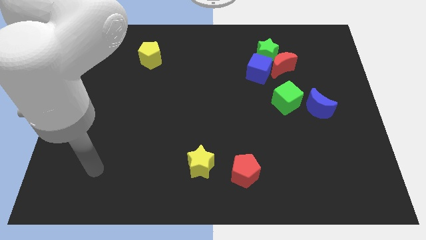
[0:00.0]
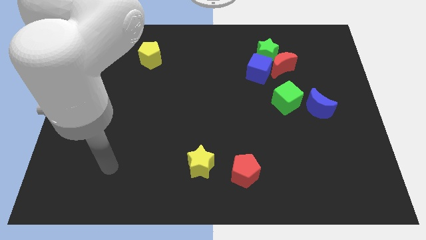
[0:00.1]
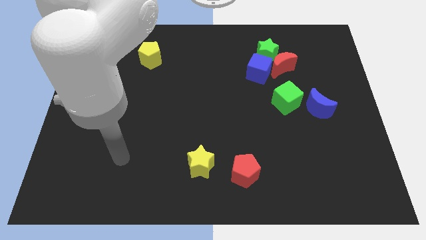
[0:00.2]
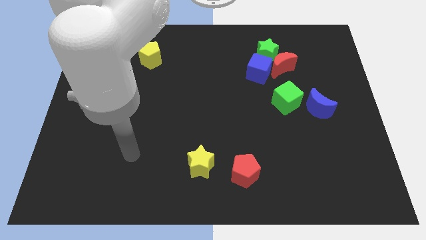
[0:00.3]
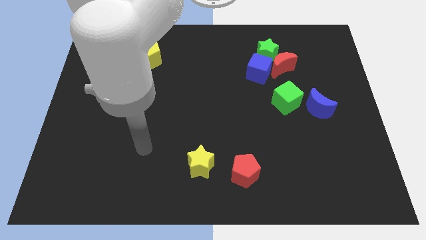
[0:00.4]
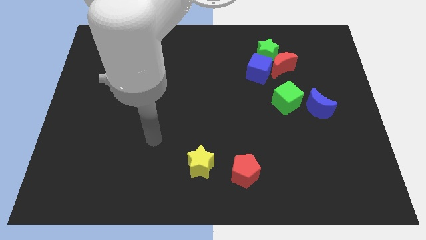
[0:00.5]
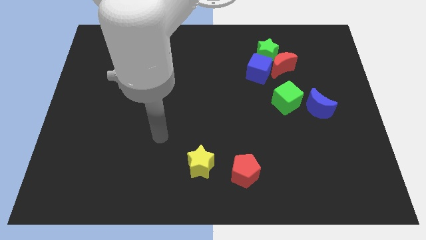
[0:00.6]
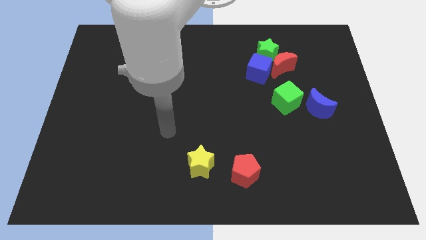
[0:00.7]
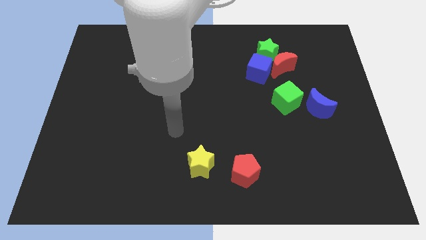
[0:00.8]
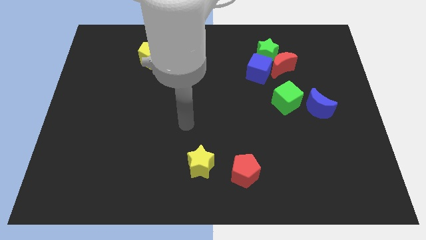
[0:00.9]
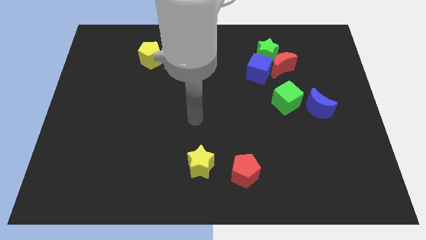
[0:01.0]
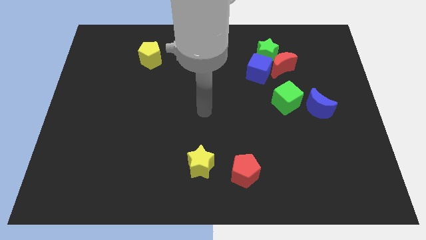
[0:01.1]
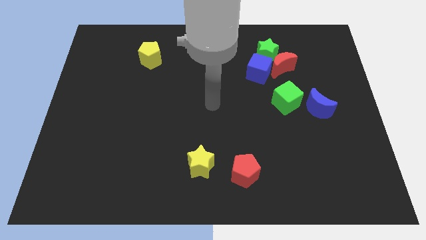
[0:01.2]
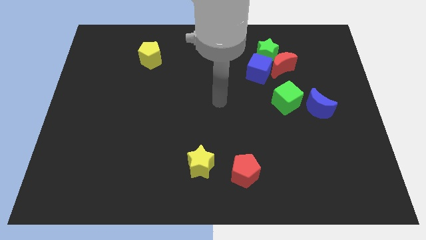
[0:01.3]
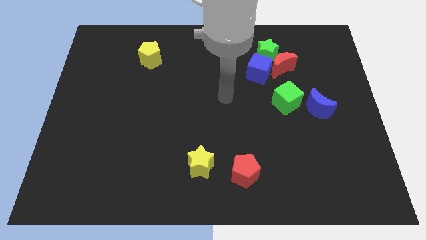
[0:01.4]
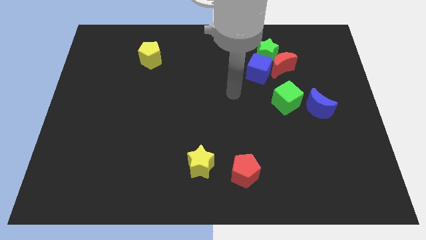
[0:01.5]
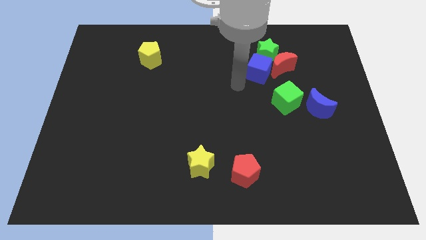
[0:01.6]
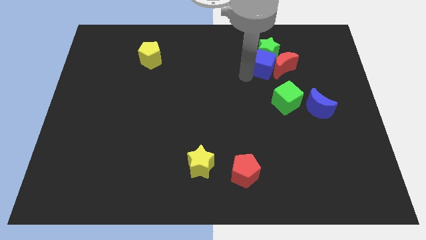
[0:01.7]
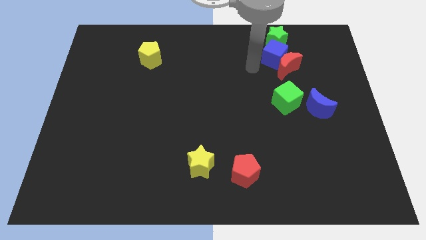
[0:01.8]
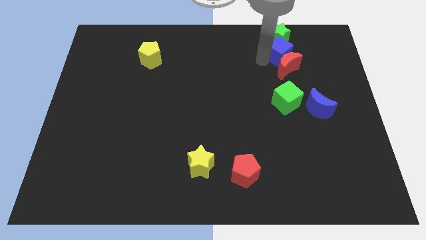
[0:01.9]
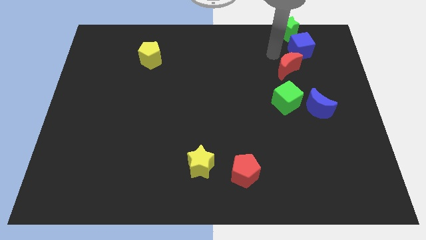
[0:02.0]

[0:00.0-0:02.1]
move the red moon away from the green star and blue cube

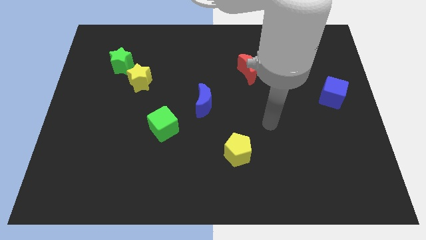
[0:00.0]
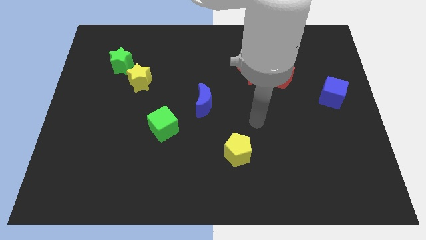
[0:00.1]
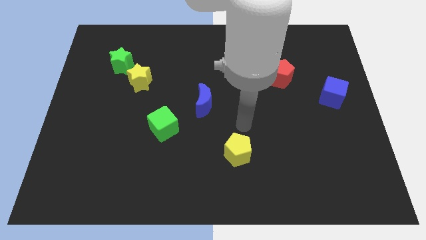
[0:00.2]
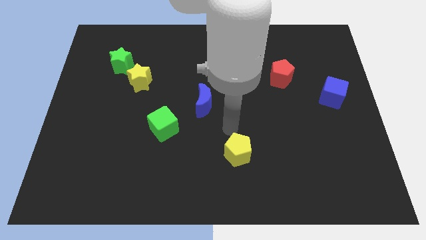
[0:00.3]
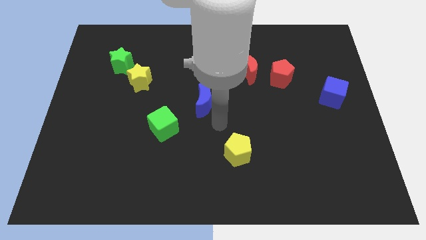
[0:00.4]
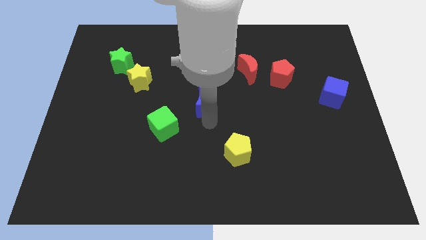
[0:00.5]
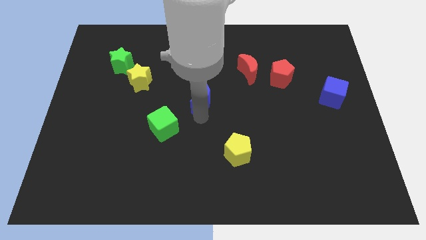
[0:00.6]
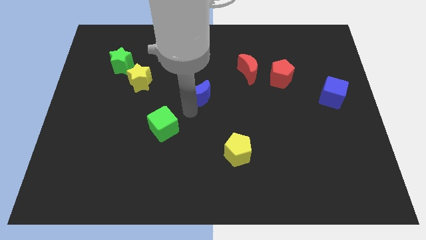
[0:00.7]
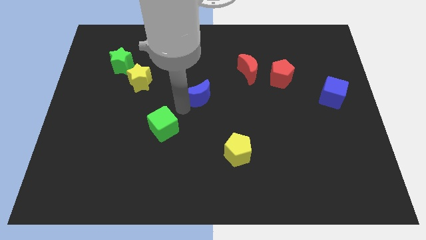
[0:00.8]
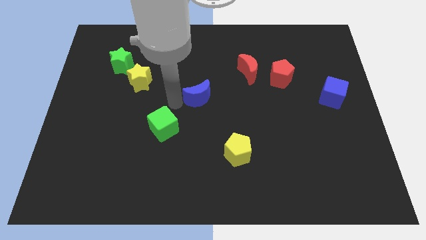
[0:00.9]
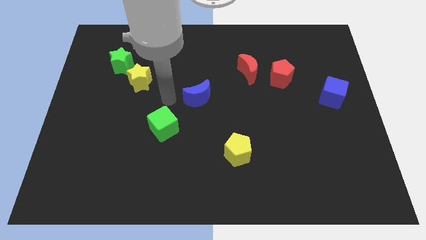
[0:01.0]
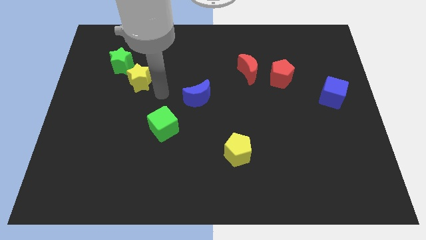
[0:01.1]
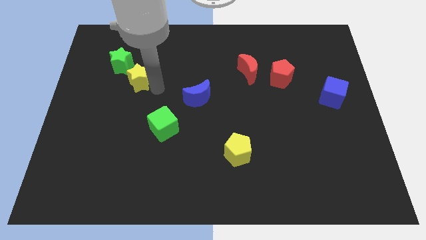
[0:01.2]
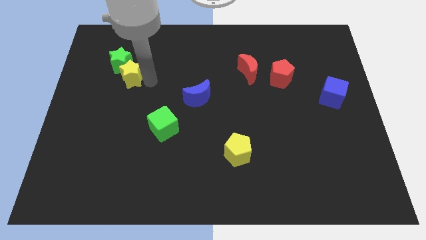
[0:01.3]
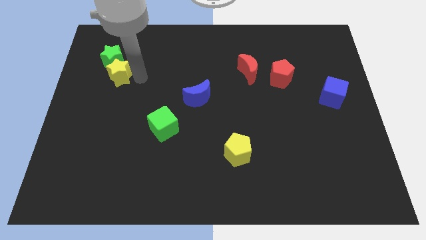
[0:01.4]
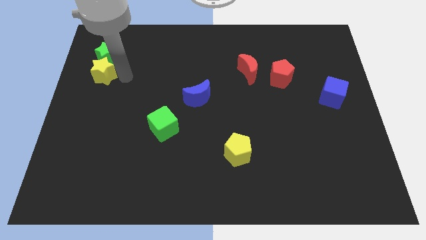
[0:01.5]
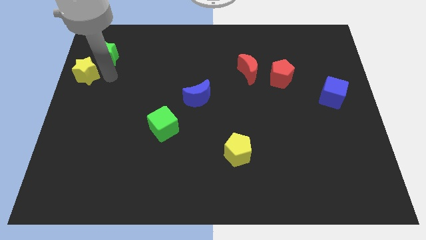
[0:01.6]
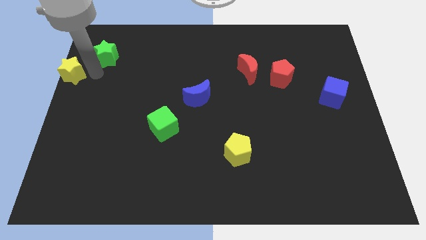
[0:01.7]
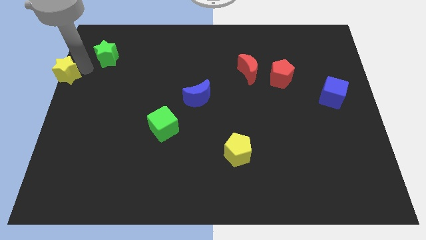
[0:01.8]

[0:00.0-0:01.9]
separate the green star from the yellow star

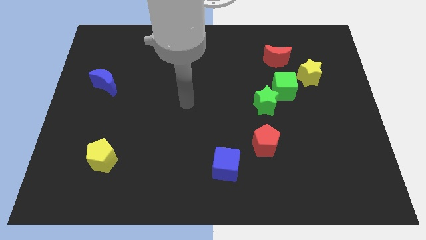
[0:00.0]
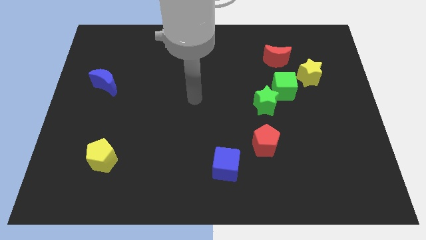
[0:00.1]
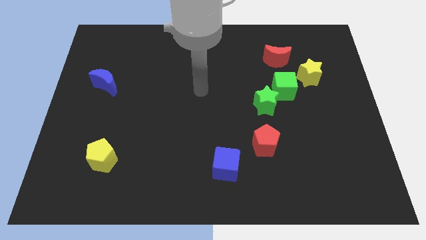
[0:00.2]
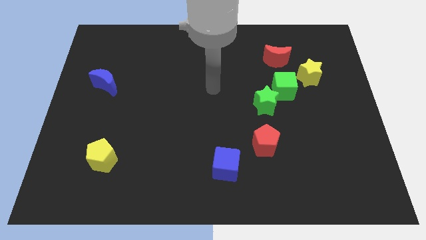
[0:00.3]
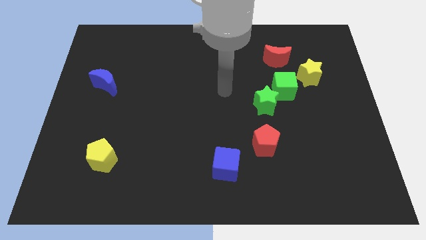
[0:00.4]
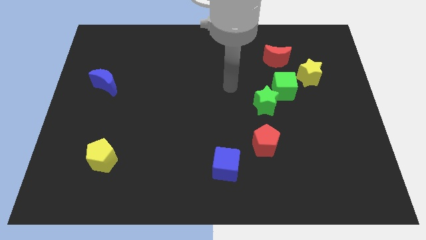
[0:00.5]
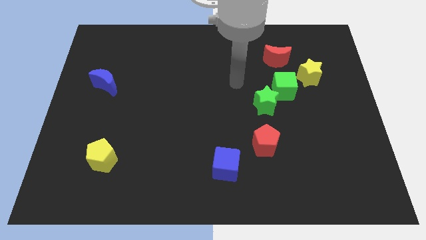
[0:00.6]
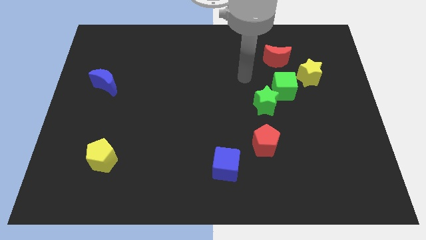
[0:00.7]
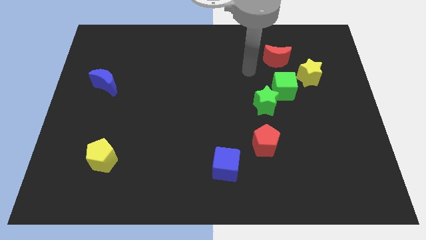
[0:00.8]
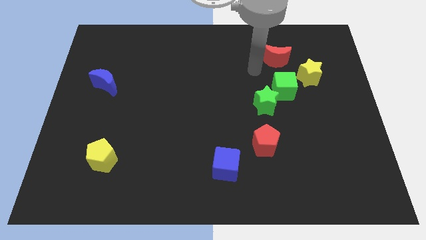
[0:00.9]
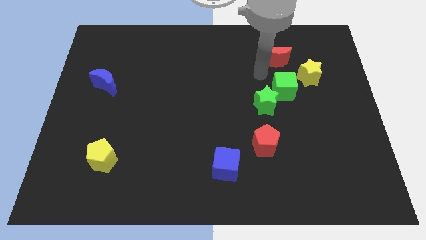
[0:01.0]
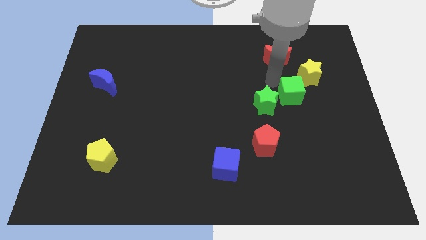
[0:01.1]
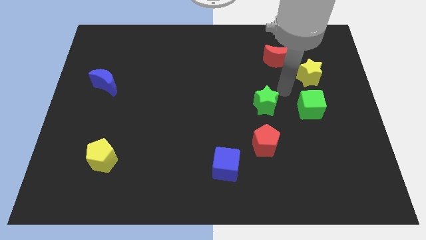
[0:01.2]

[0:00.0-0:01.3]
pull the green star apart from the green cube

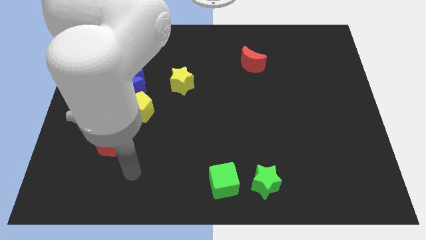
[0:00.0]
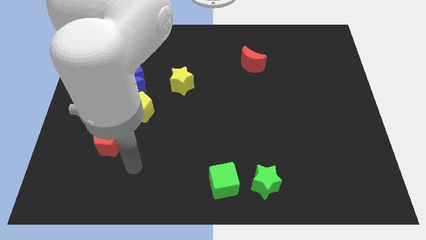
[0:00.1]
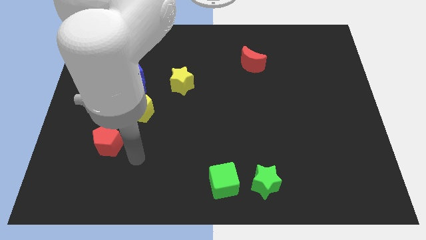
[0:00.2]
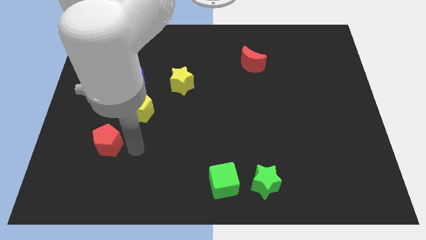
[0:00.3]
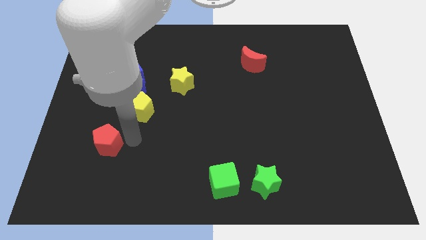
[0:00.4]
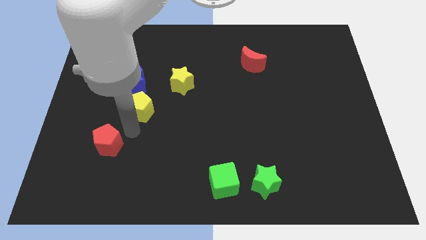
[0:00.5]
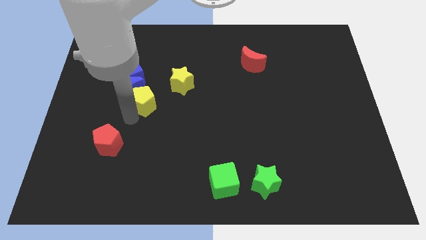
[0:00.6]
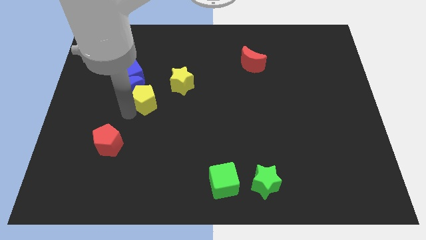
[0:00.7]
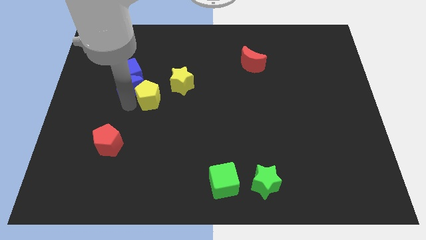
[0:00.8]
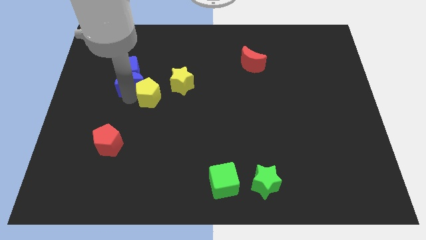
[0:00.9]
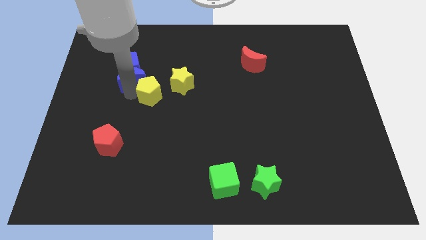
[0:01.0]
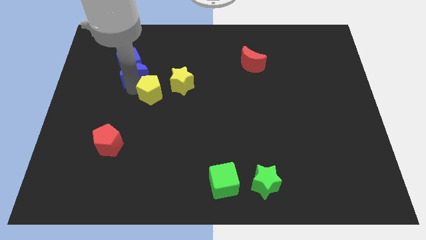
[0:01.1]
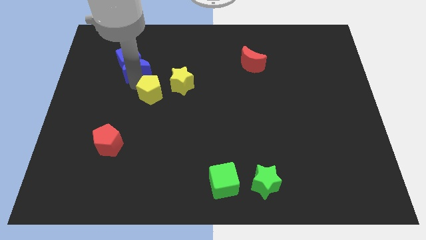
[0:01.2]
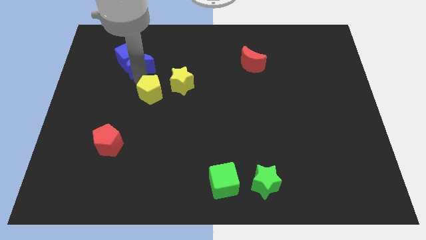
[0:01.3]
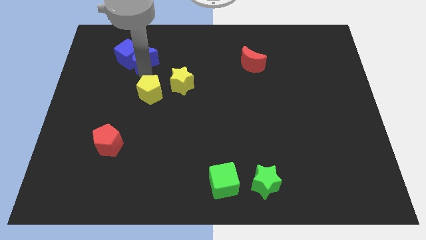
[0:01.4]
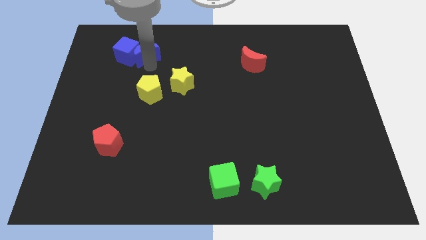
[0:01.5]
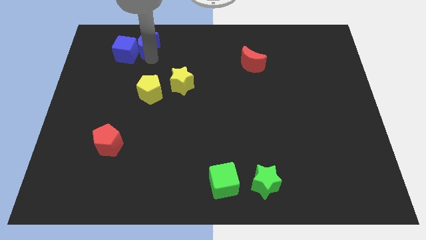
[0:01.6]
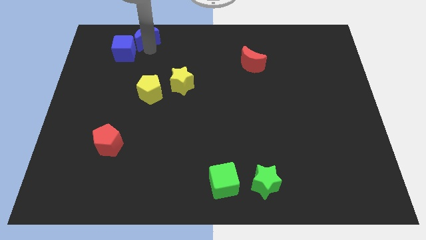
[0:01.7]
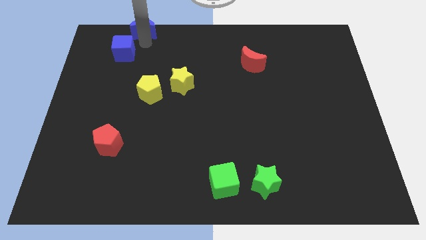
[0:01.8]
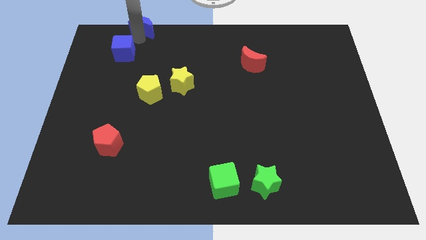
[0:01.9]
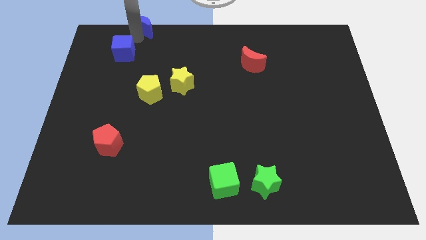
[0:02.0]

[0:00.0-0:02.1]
move the blue cube away from the blue moon

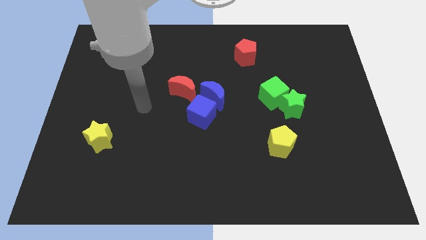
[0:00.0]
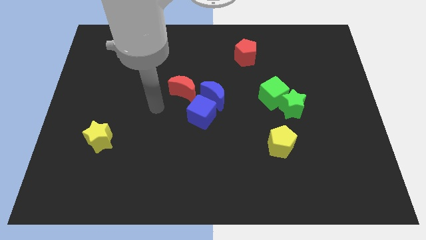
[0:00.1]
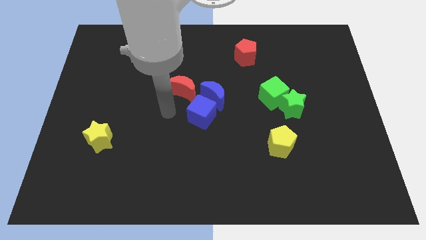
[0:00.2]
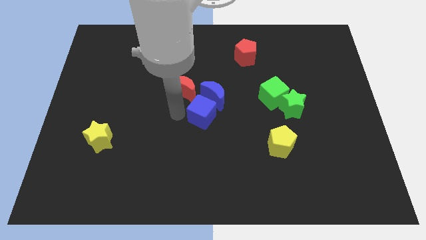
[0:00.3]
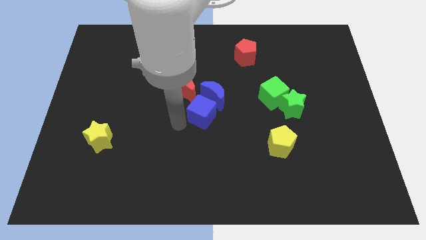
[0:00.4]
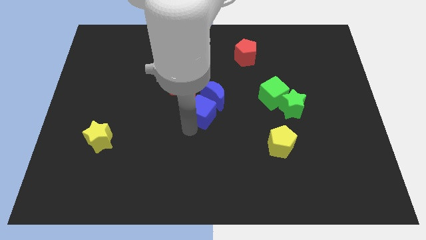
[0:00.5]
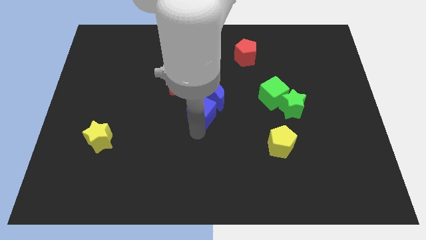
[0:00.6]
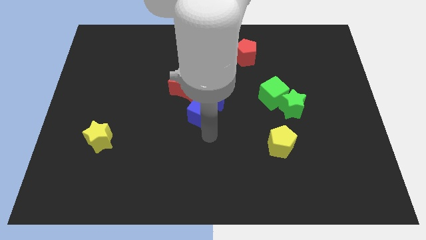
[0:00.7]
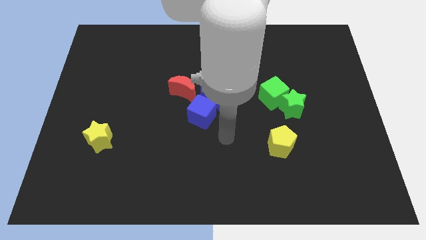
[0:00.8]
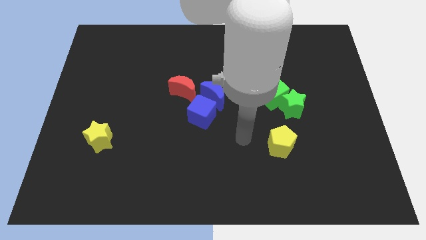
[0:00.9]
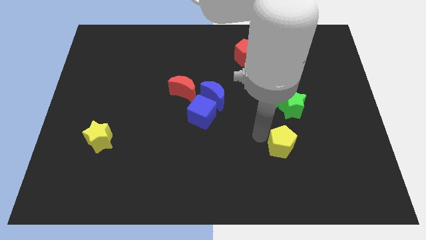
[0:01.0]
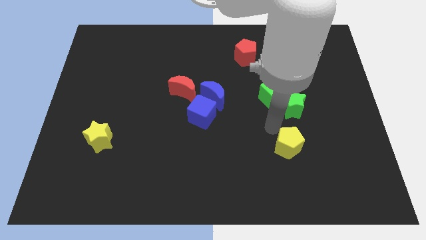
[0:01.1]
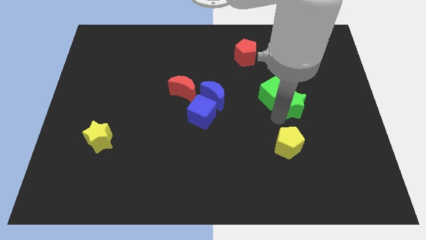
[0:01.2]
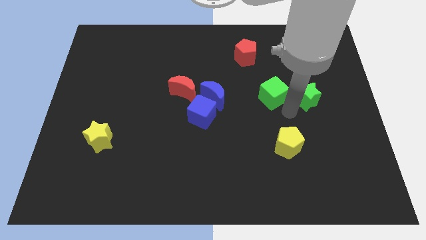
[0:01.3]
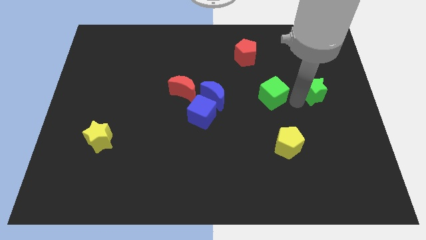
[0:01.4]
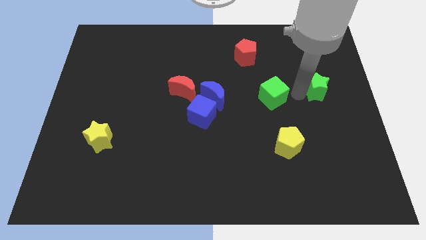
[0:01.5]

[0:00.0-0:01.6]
separate the green cube from the green star

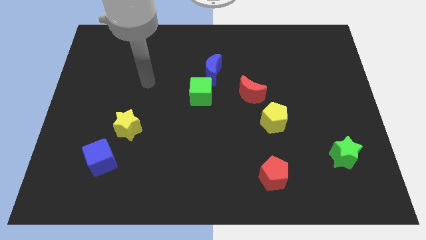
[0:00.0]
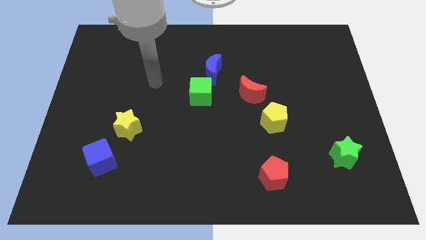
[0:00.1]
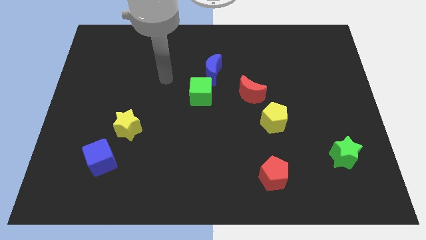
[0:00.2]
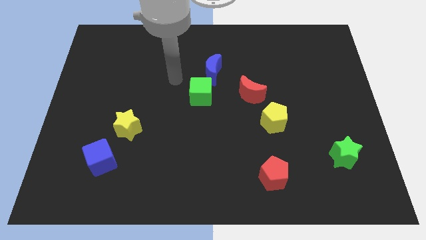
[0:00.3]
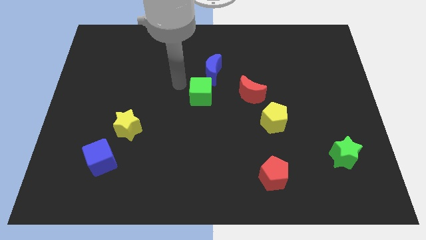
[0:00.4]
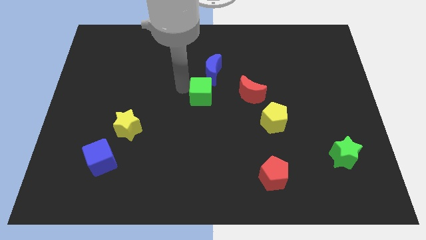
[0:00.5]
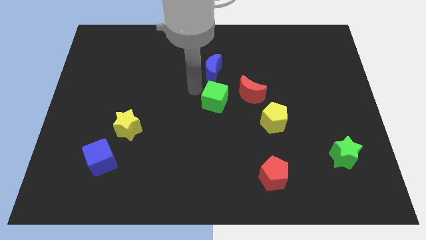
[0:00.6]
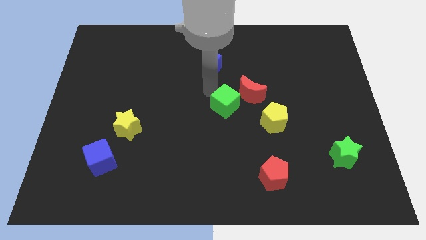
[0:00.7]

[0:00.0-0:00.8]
pull the blue moon apart from the green cube
